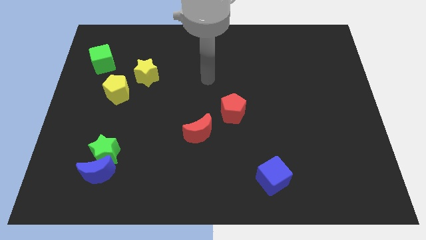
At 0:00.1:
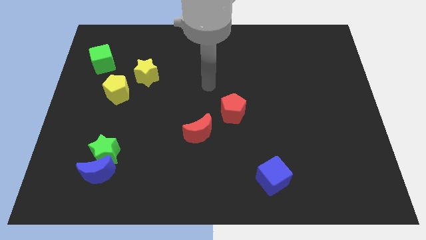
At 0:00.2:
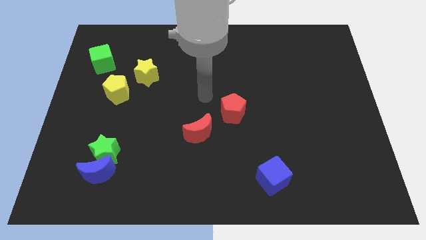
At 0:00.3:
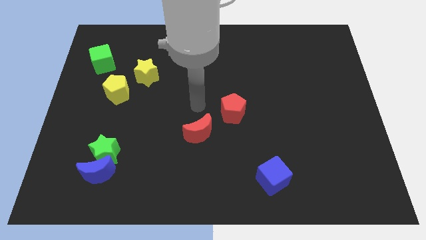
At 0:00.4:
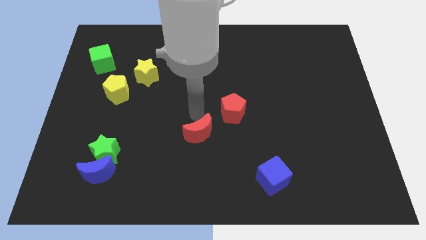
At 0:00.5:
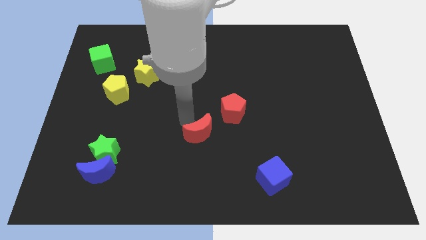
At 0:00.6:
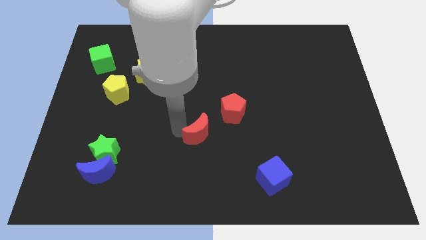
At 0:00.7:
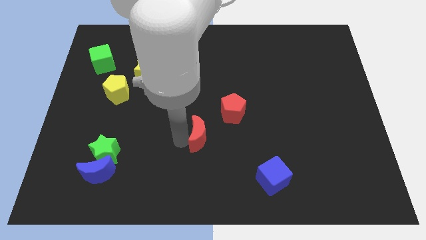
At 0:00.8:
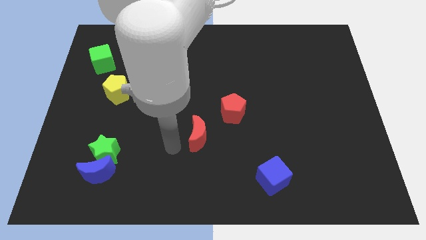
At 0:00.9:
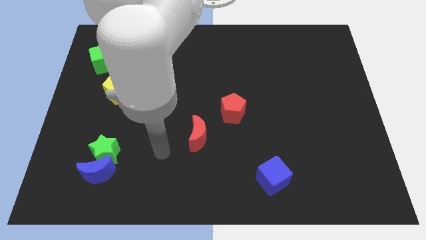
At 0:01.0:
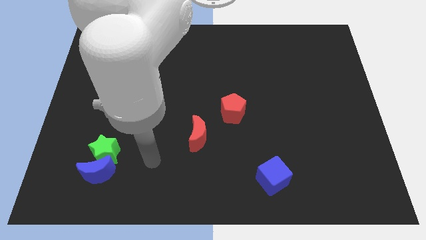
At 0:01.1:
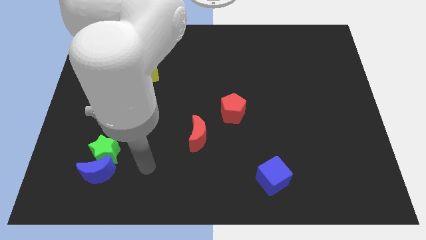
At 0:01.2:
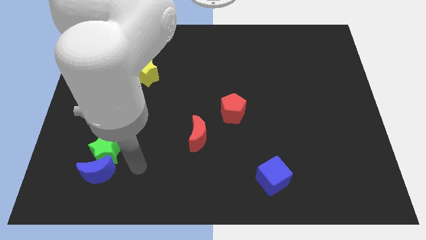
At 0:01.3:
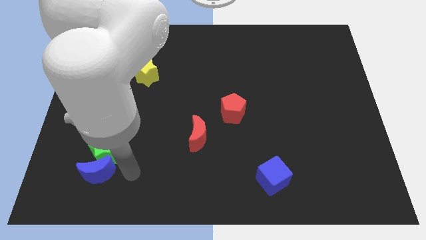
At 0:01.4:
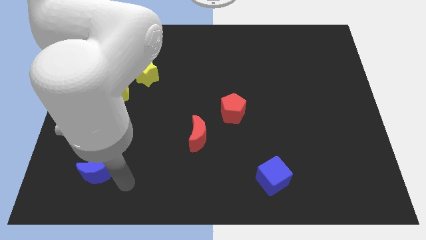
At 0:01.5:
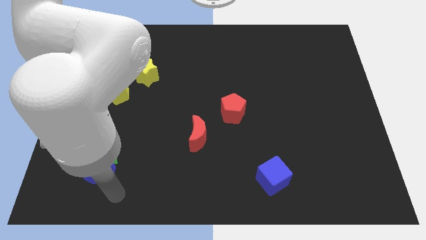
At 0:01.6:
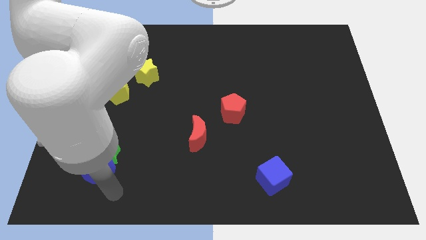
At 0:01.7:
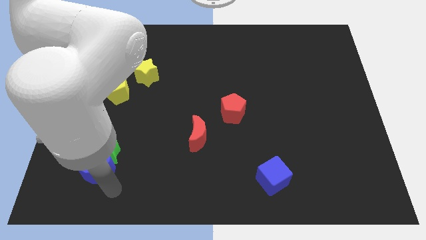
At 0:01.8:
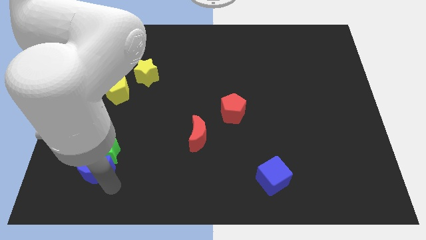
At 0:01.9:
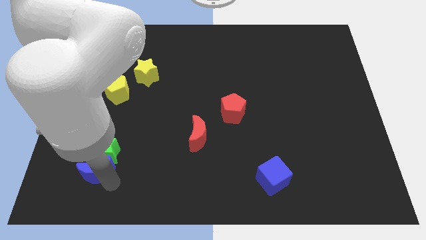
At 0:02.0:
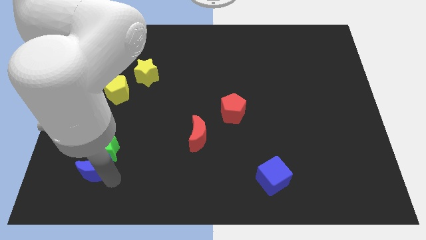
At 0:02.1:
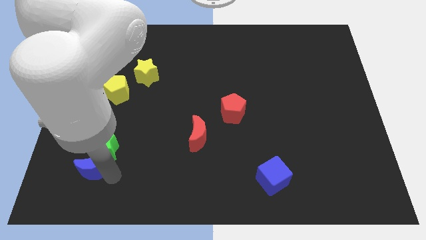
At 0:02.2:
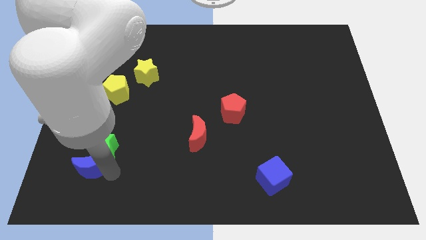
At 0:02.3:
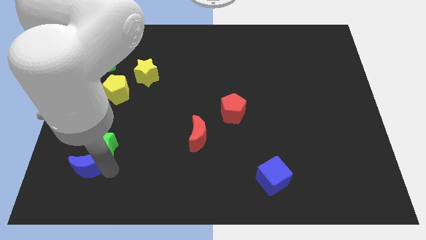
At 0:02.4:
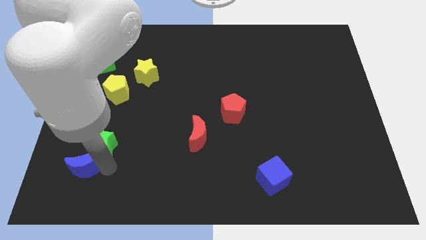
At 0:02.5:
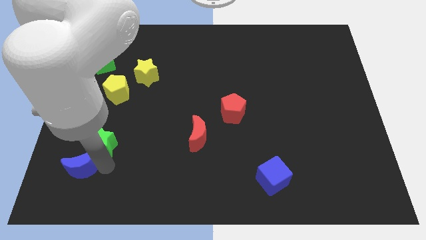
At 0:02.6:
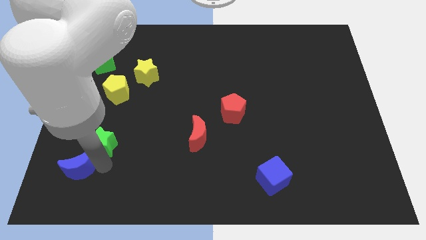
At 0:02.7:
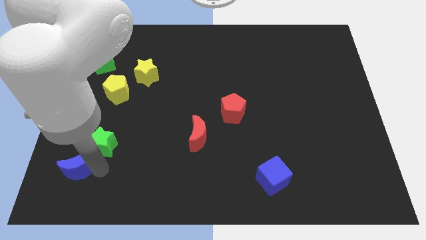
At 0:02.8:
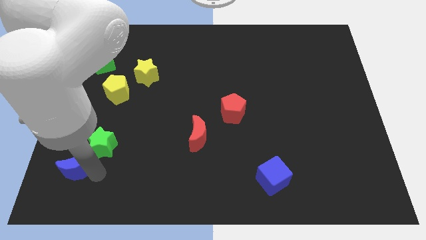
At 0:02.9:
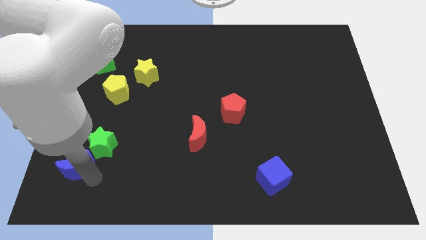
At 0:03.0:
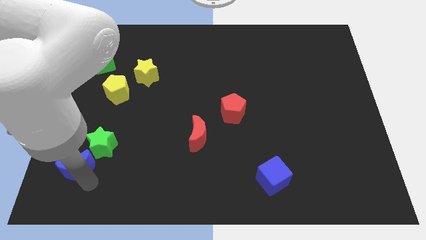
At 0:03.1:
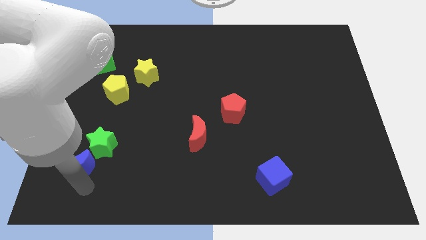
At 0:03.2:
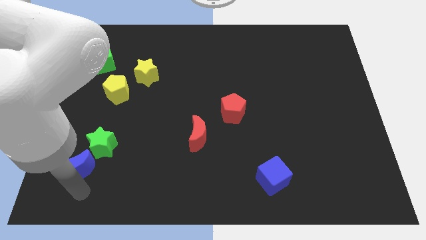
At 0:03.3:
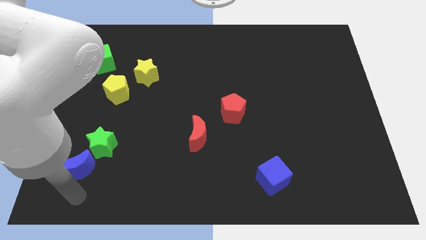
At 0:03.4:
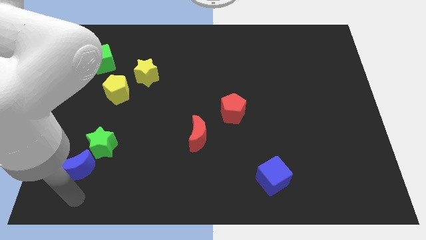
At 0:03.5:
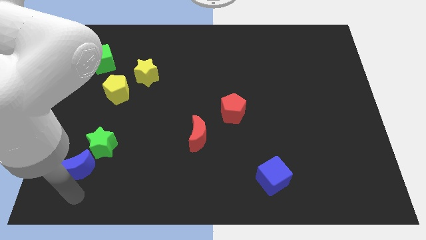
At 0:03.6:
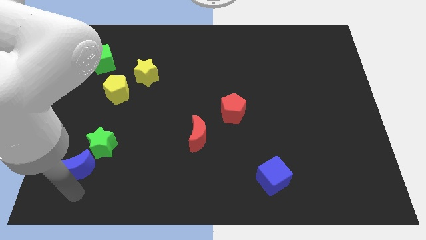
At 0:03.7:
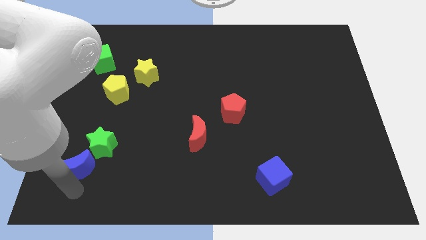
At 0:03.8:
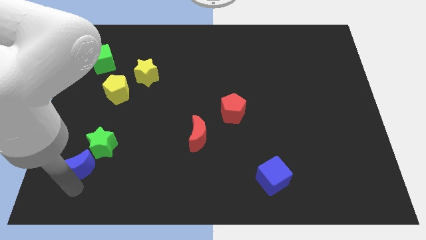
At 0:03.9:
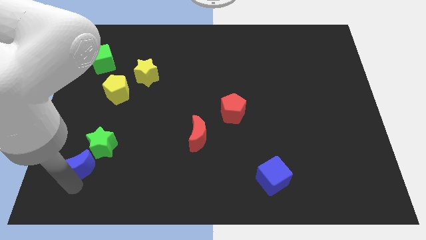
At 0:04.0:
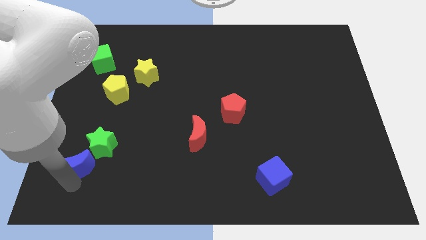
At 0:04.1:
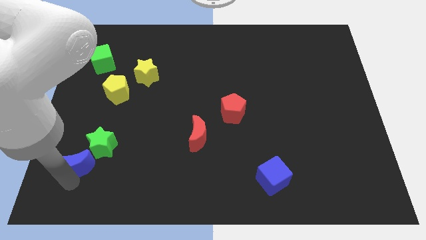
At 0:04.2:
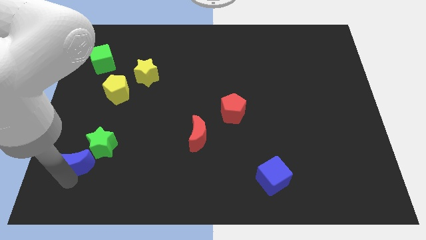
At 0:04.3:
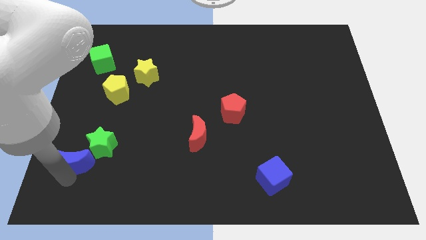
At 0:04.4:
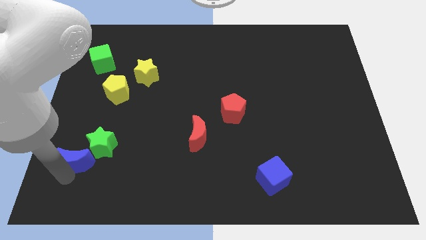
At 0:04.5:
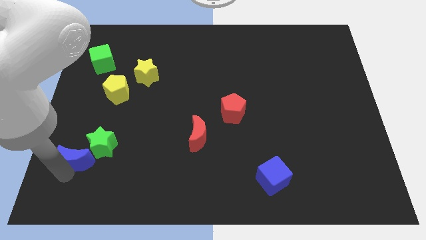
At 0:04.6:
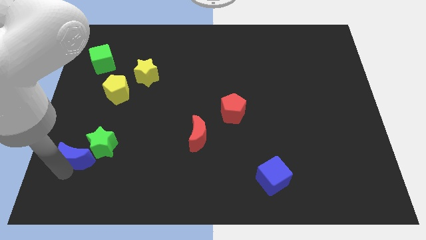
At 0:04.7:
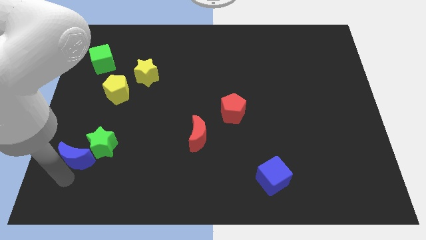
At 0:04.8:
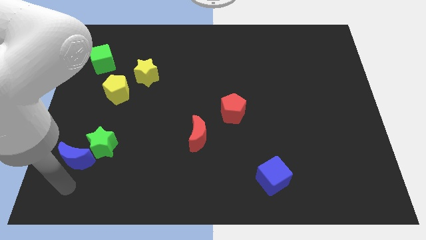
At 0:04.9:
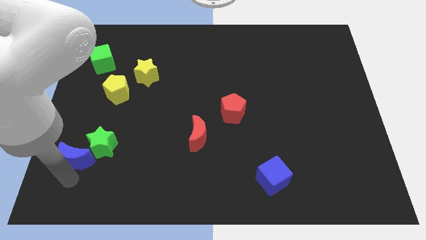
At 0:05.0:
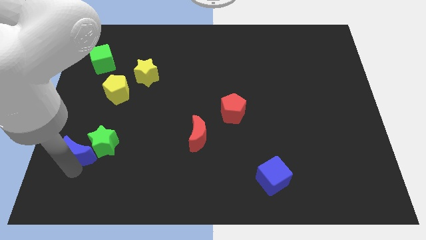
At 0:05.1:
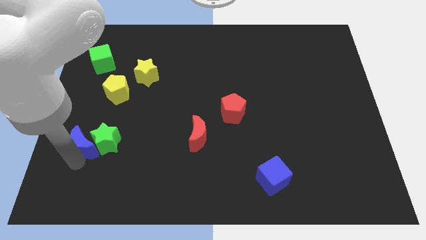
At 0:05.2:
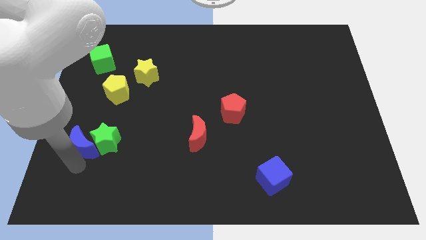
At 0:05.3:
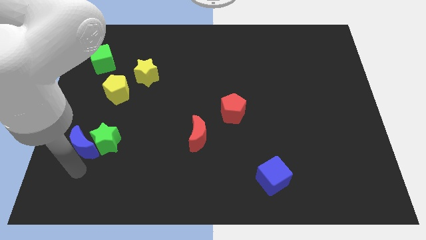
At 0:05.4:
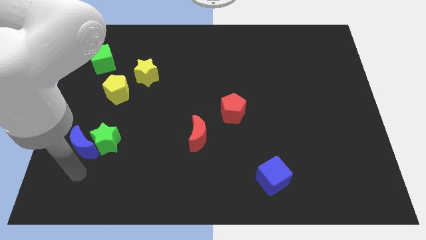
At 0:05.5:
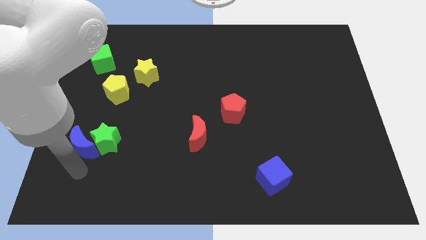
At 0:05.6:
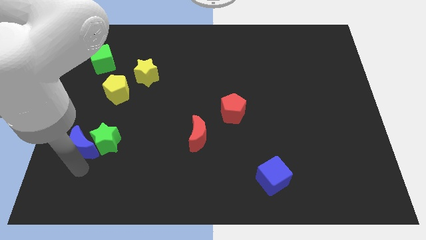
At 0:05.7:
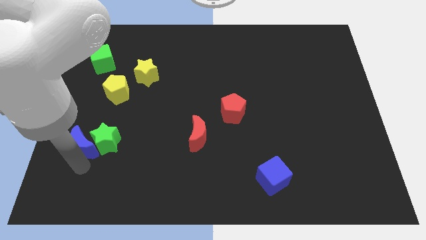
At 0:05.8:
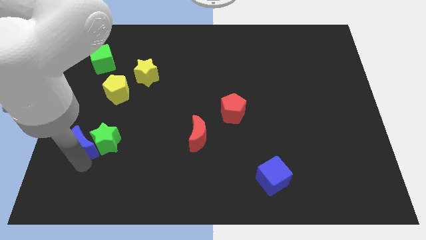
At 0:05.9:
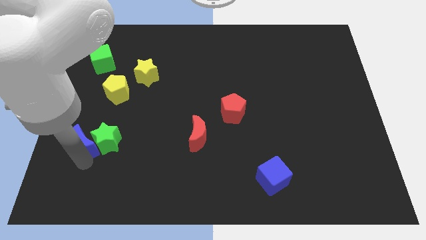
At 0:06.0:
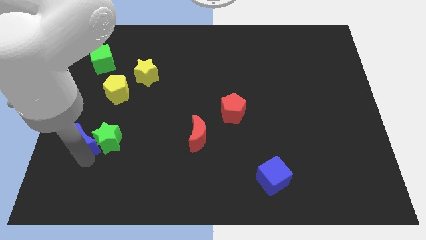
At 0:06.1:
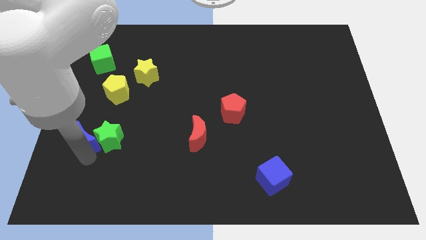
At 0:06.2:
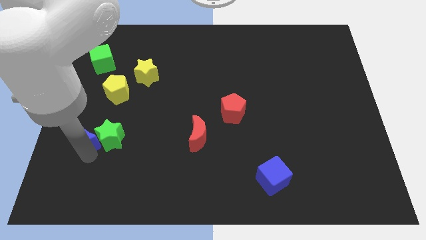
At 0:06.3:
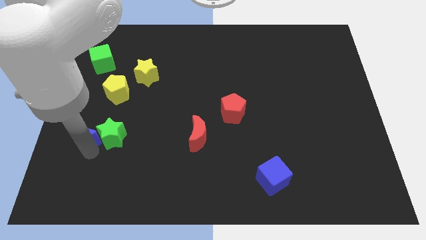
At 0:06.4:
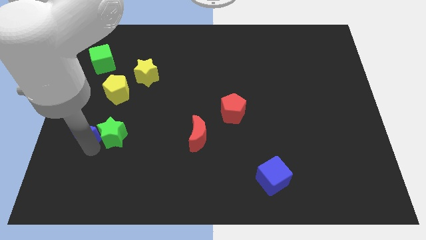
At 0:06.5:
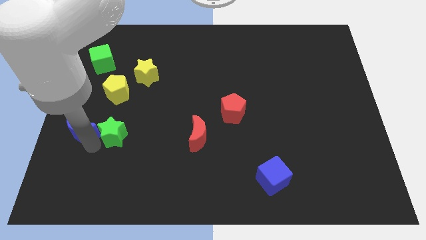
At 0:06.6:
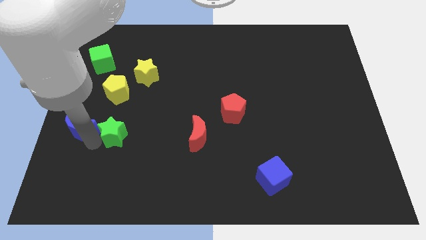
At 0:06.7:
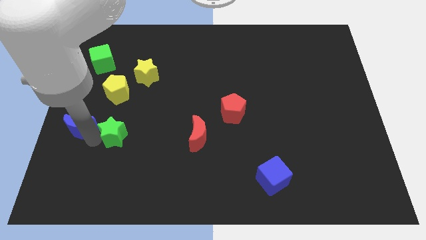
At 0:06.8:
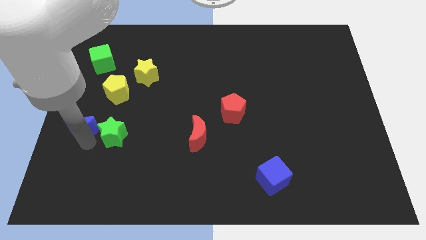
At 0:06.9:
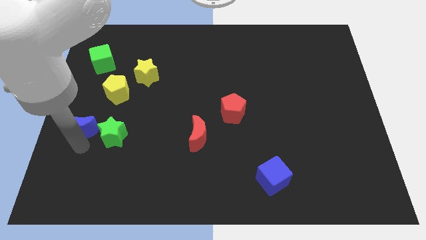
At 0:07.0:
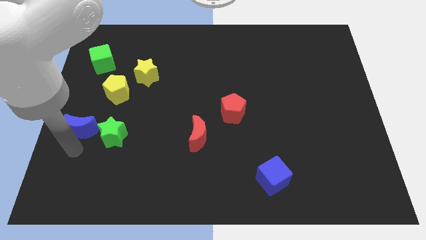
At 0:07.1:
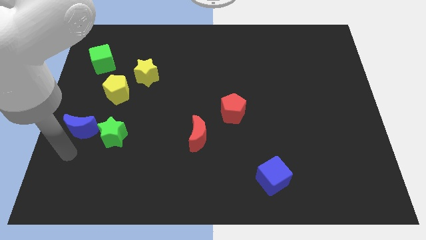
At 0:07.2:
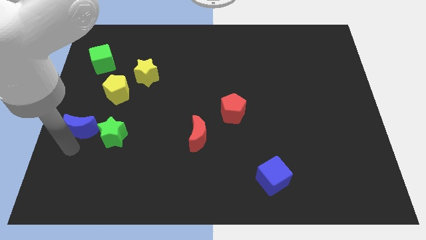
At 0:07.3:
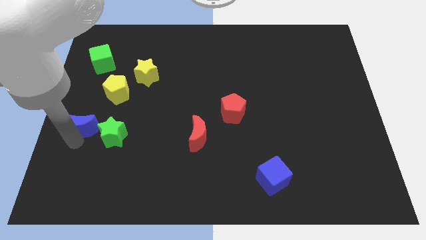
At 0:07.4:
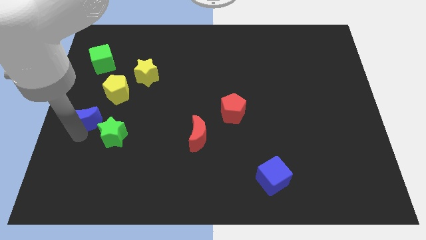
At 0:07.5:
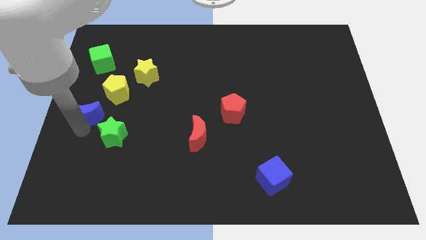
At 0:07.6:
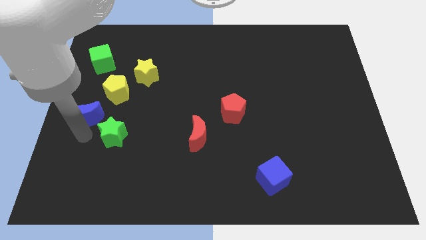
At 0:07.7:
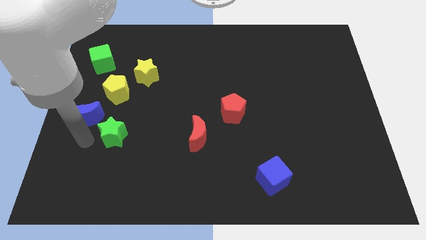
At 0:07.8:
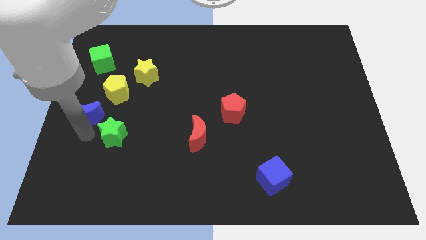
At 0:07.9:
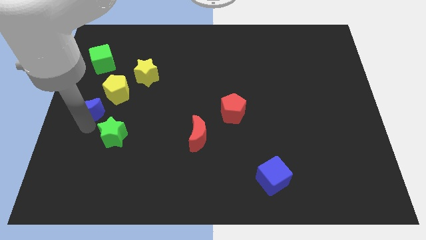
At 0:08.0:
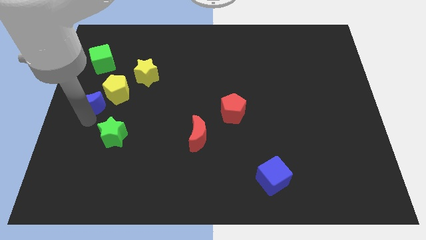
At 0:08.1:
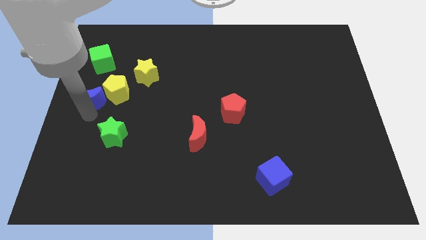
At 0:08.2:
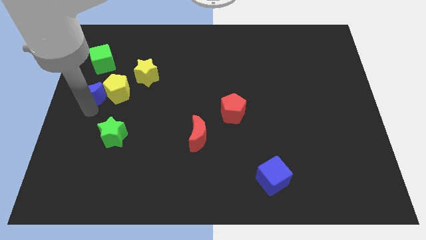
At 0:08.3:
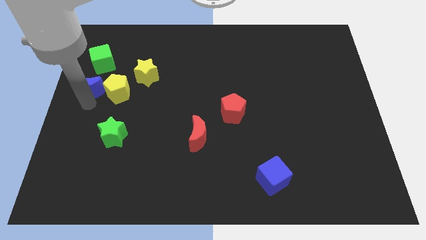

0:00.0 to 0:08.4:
push the blue moon up
